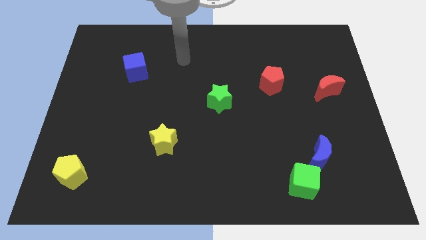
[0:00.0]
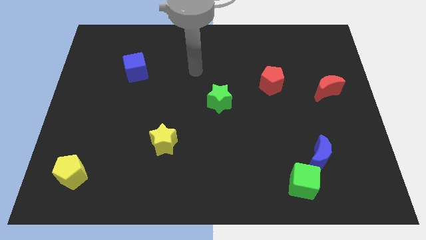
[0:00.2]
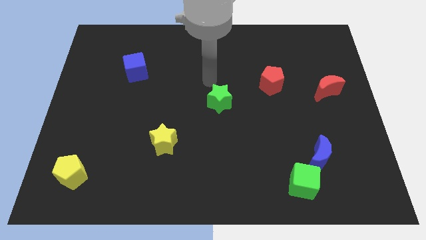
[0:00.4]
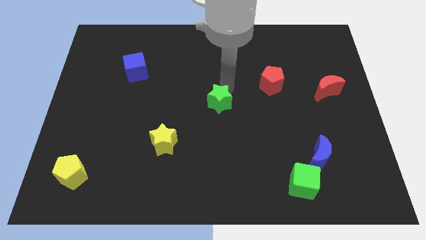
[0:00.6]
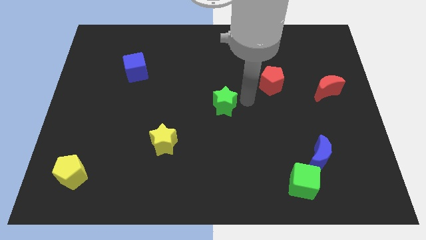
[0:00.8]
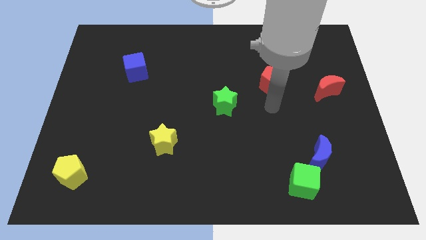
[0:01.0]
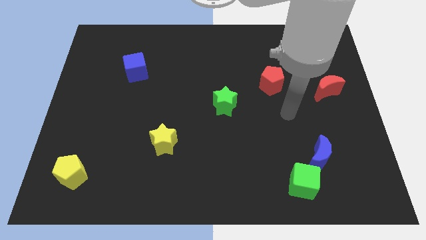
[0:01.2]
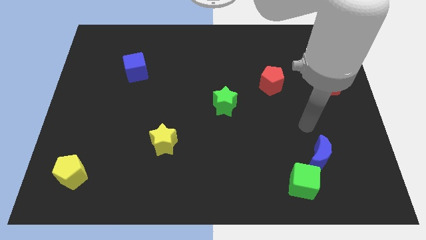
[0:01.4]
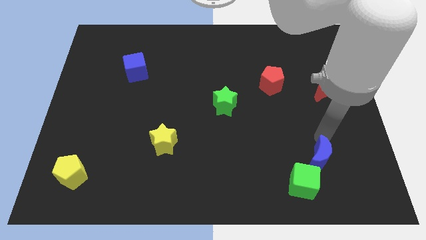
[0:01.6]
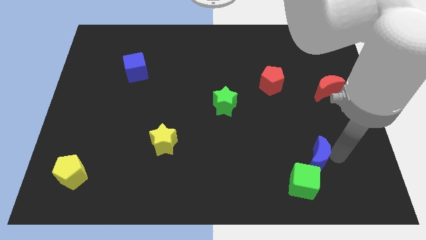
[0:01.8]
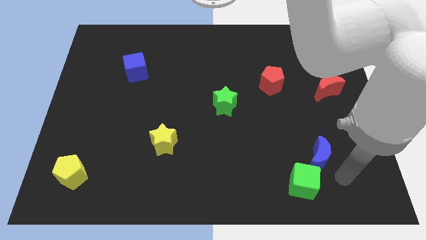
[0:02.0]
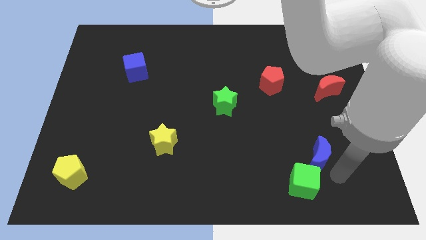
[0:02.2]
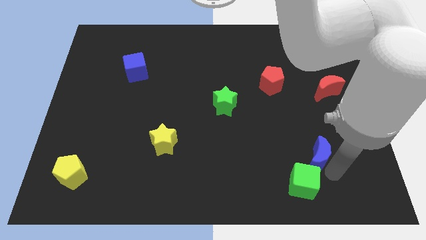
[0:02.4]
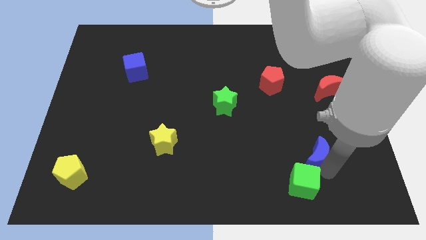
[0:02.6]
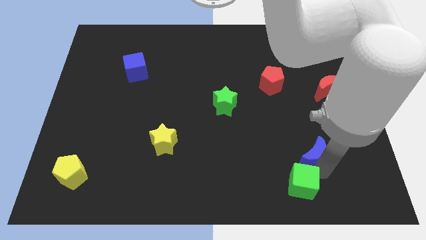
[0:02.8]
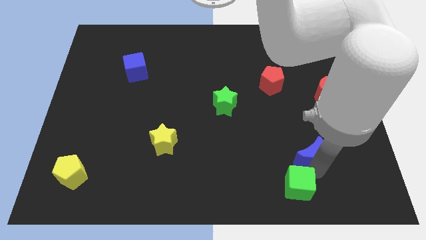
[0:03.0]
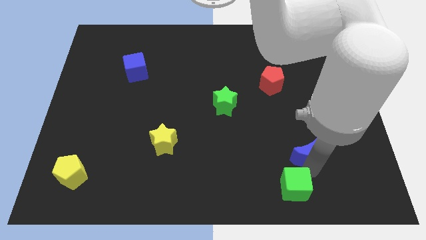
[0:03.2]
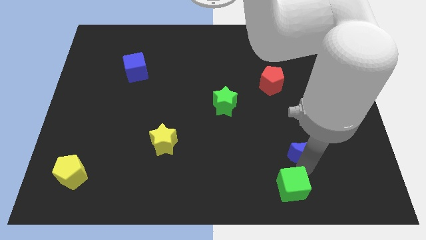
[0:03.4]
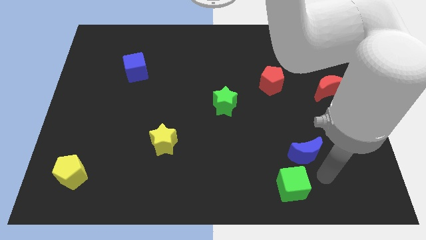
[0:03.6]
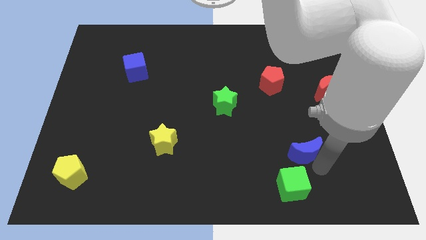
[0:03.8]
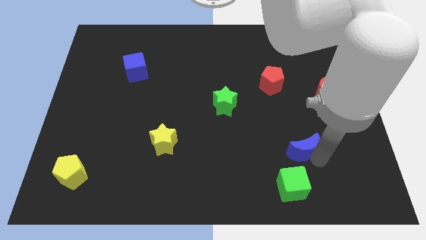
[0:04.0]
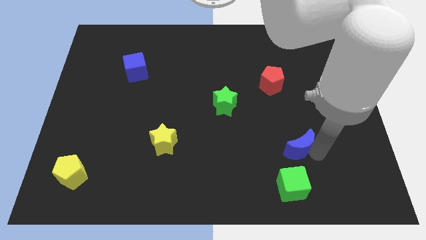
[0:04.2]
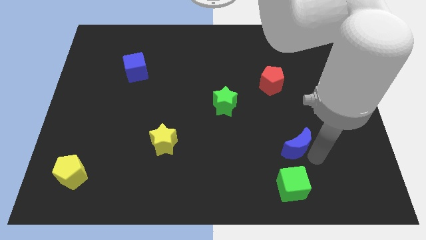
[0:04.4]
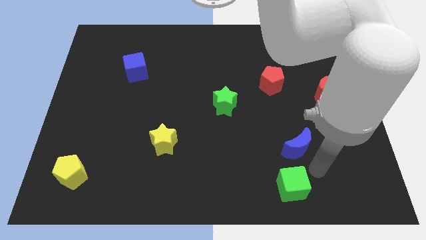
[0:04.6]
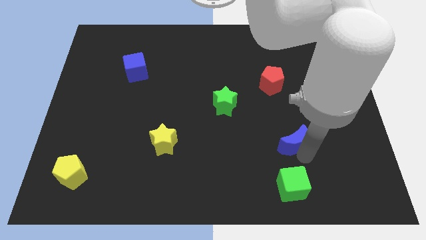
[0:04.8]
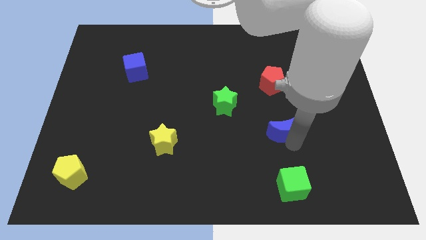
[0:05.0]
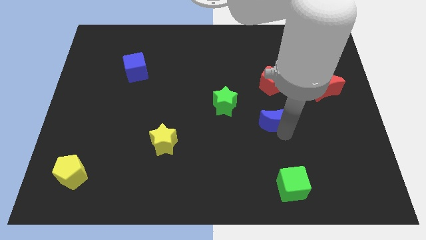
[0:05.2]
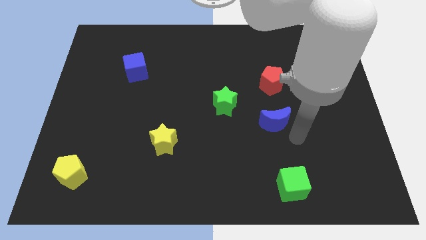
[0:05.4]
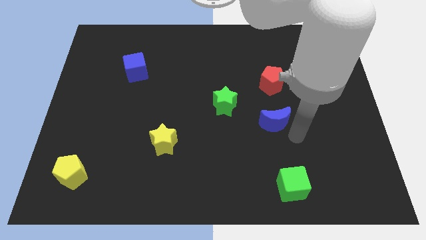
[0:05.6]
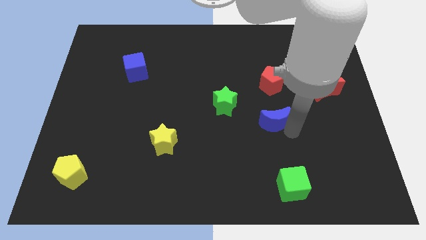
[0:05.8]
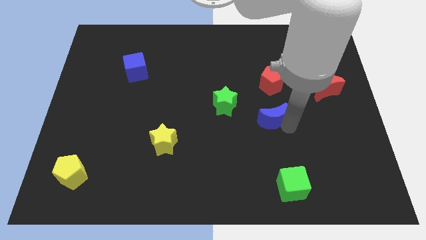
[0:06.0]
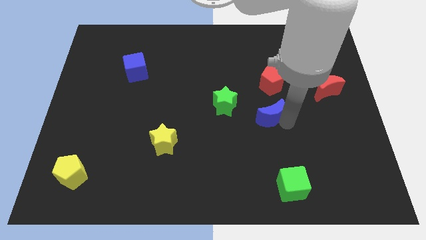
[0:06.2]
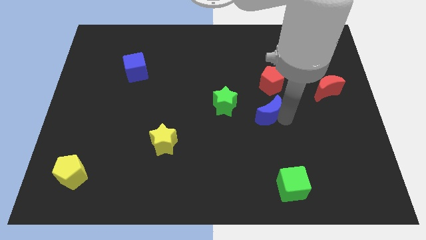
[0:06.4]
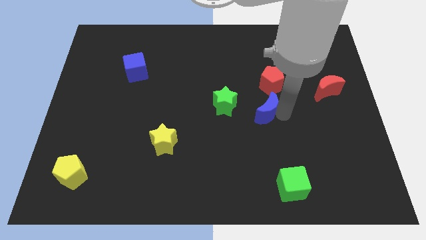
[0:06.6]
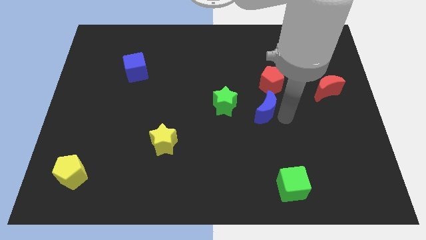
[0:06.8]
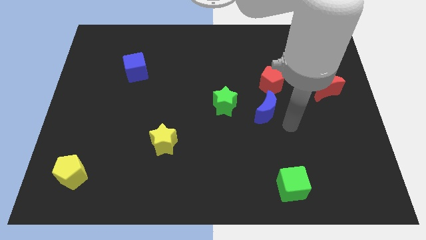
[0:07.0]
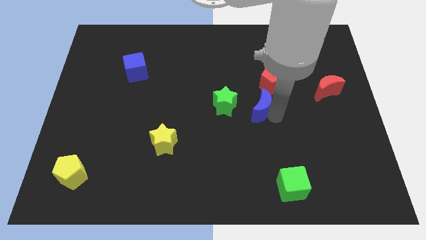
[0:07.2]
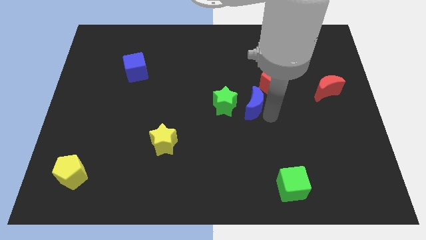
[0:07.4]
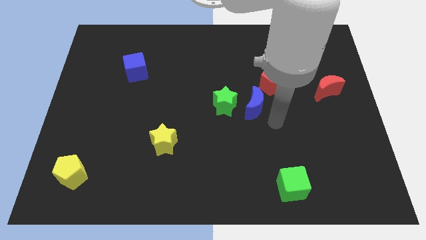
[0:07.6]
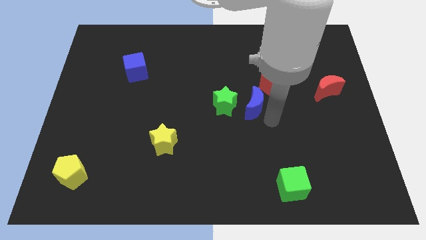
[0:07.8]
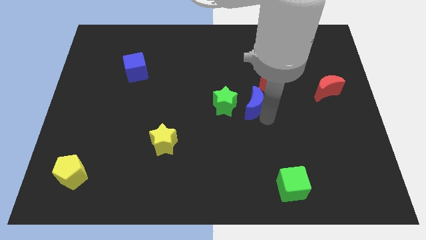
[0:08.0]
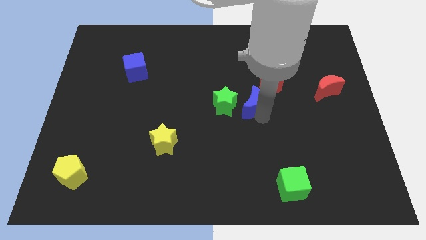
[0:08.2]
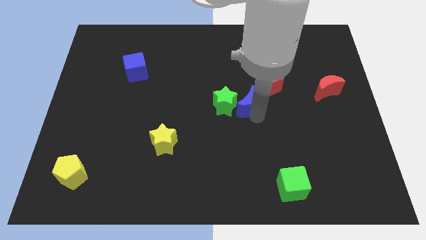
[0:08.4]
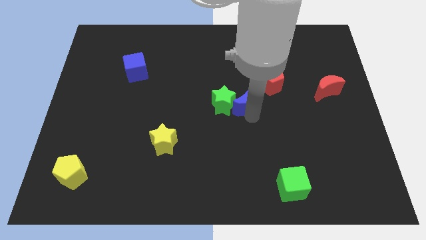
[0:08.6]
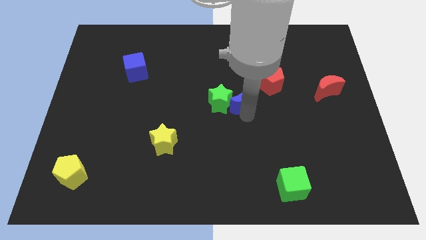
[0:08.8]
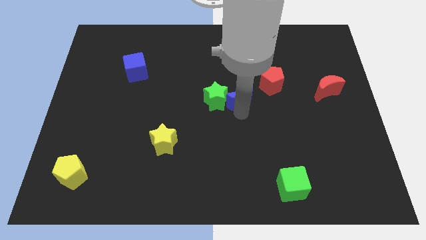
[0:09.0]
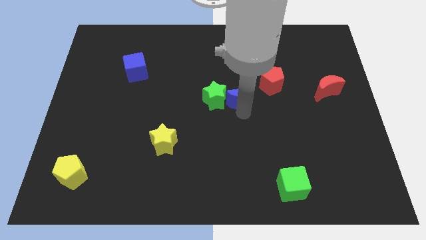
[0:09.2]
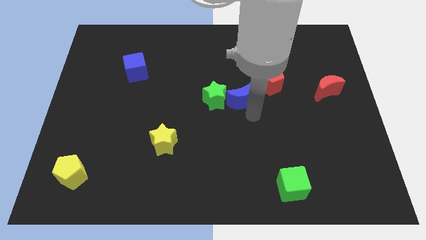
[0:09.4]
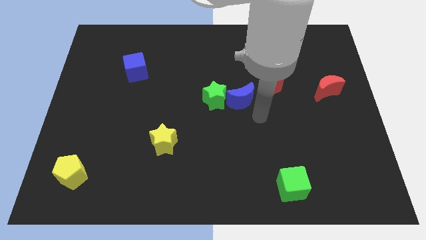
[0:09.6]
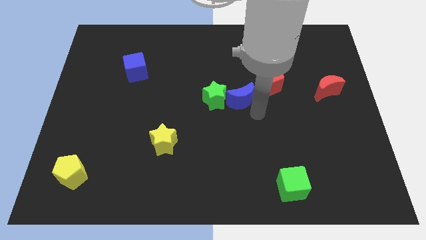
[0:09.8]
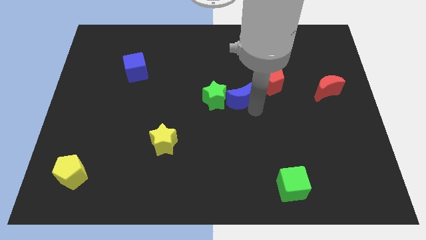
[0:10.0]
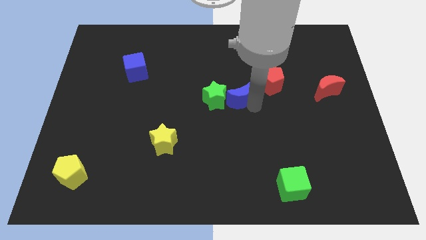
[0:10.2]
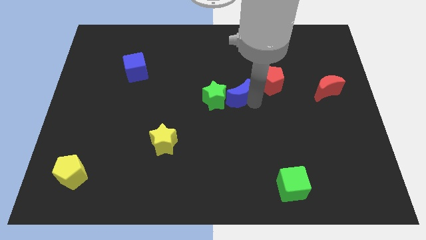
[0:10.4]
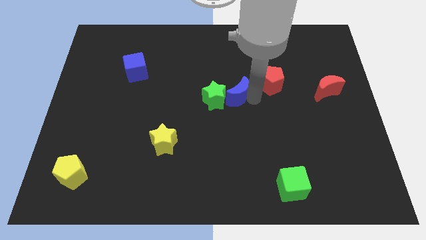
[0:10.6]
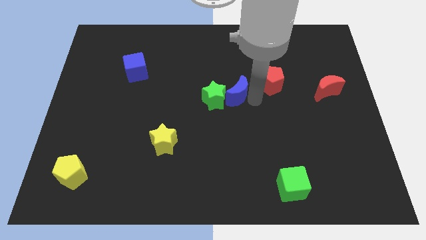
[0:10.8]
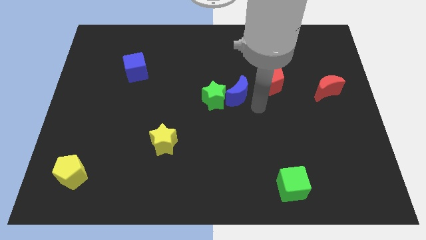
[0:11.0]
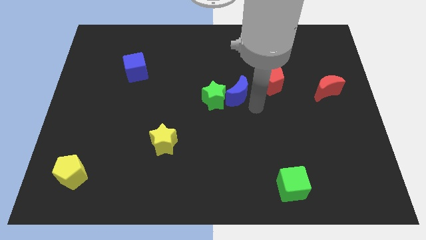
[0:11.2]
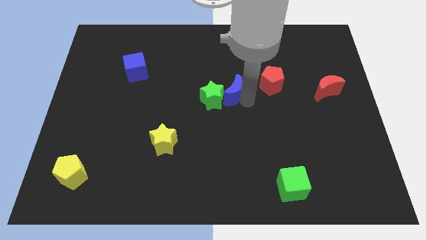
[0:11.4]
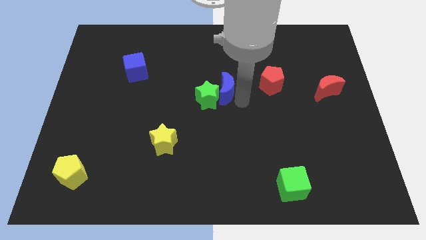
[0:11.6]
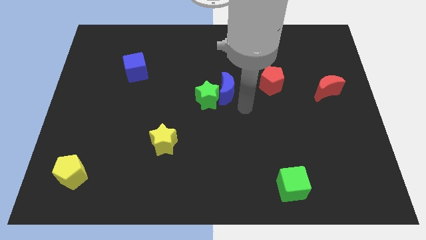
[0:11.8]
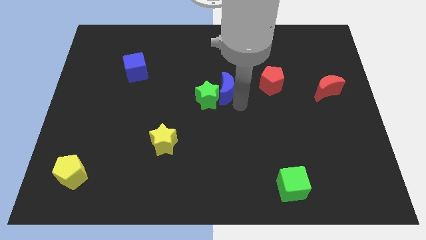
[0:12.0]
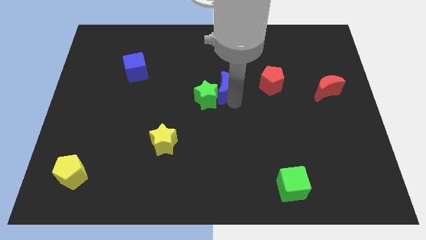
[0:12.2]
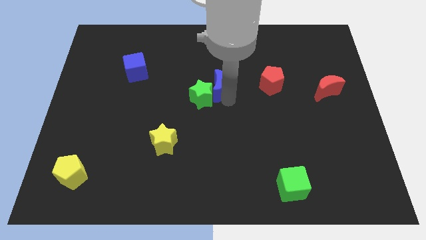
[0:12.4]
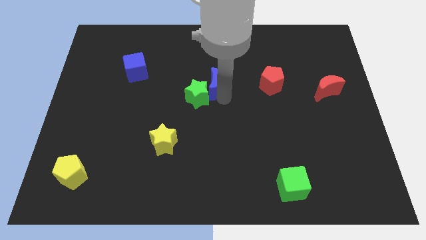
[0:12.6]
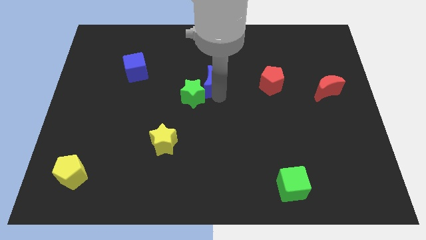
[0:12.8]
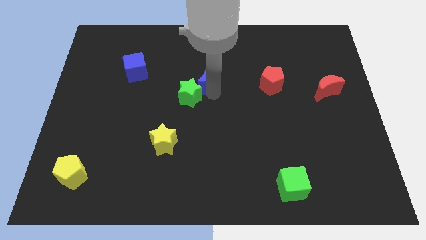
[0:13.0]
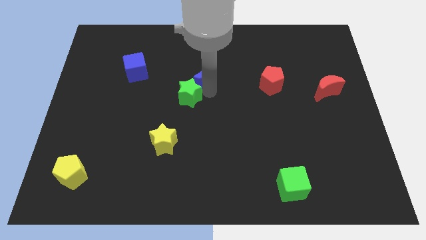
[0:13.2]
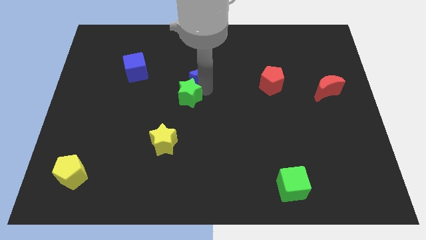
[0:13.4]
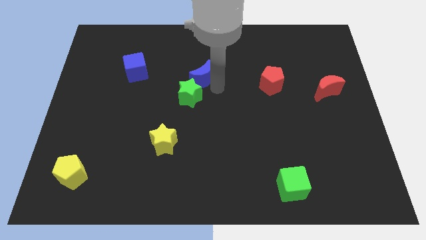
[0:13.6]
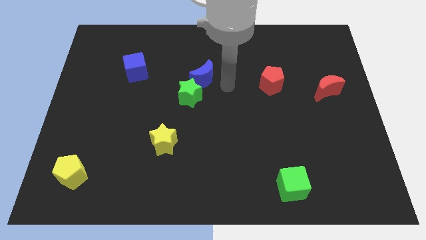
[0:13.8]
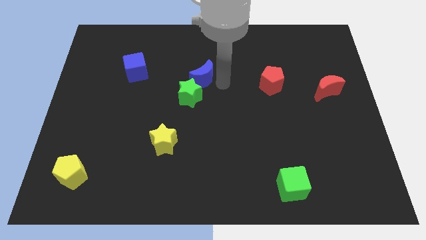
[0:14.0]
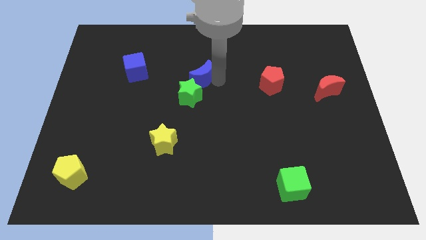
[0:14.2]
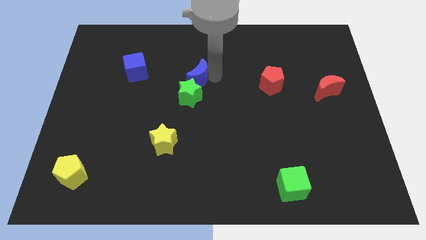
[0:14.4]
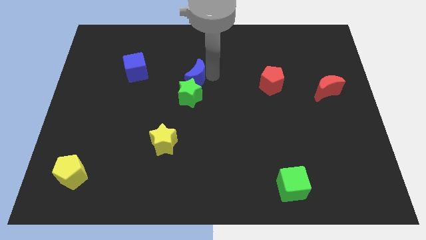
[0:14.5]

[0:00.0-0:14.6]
slide the blue moon to the right side of the blue cube

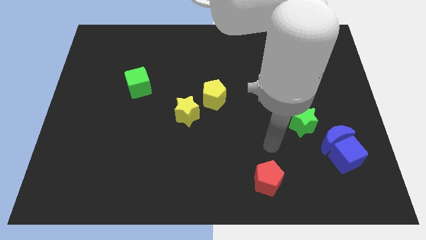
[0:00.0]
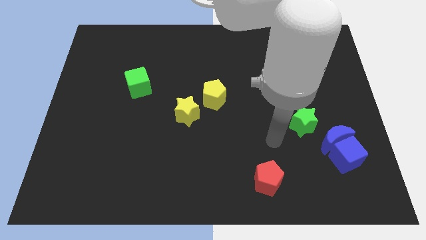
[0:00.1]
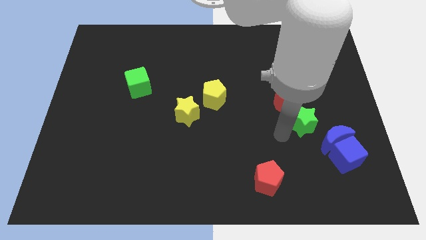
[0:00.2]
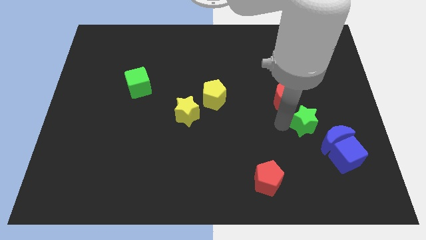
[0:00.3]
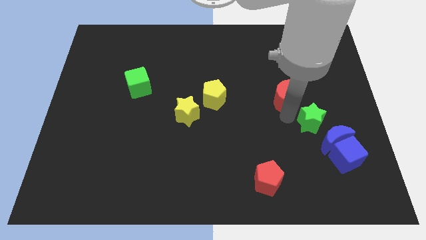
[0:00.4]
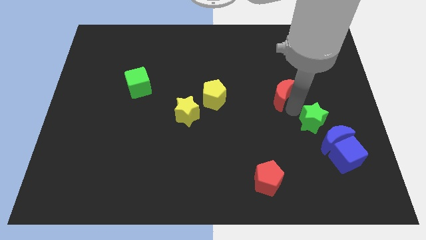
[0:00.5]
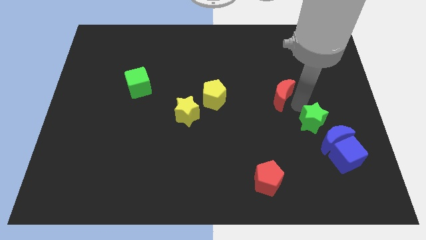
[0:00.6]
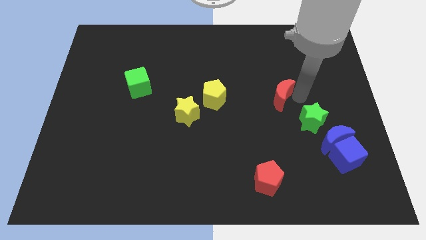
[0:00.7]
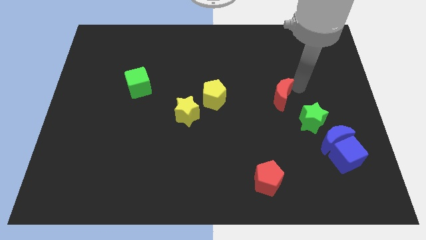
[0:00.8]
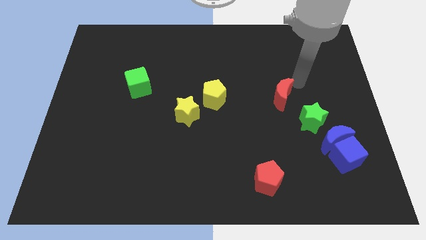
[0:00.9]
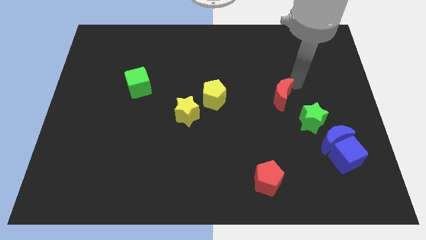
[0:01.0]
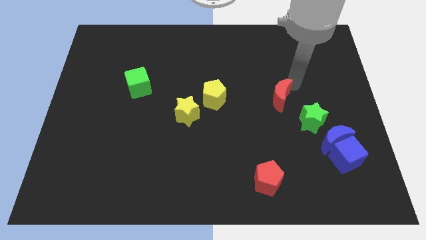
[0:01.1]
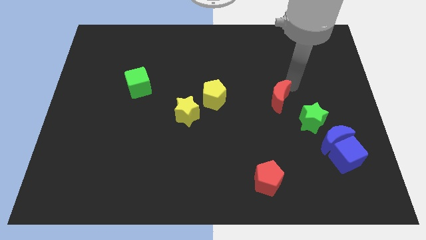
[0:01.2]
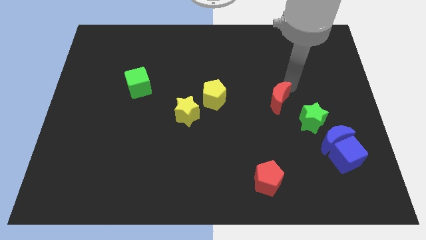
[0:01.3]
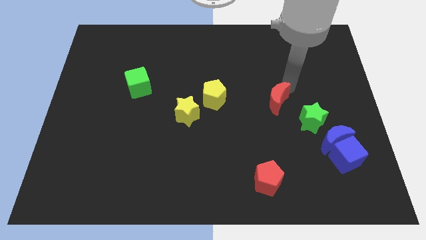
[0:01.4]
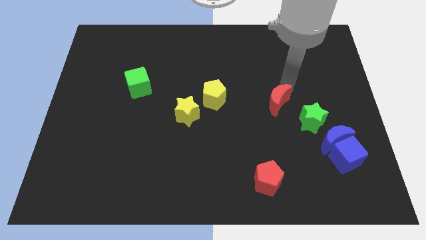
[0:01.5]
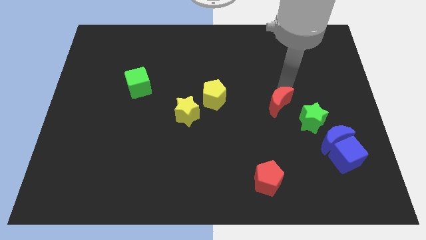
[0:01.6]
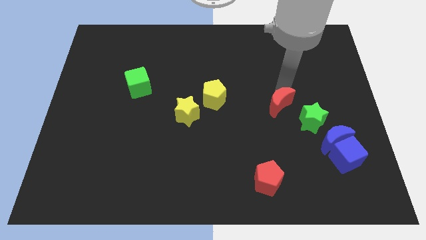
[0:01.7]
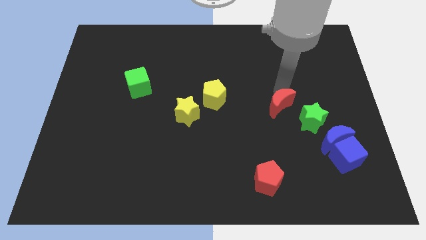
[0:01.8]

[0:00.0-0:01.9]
move the red moon to the left of the green star
